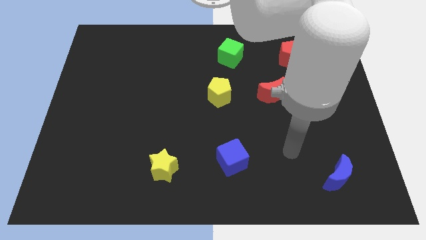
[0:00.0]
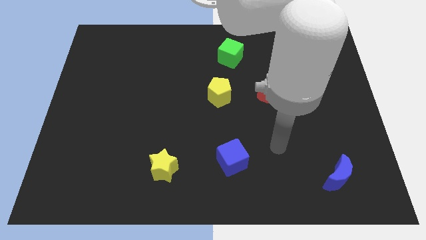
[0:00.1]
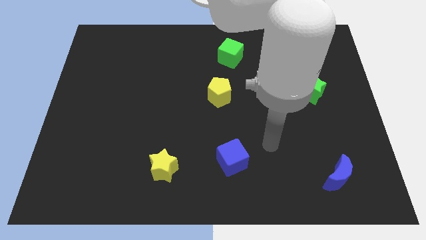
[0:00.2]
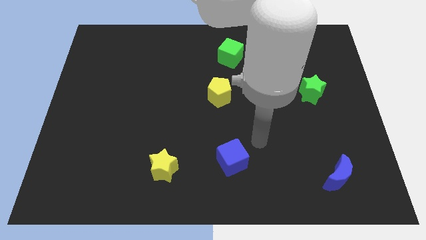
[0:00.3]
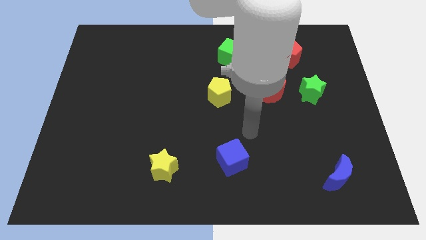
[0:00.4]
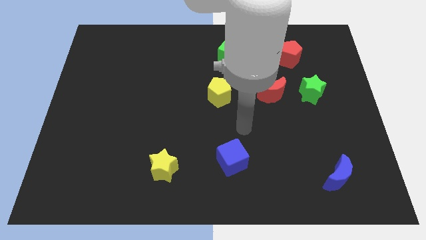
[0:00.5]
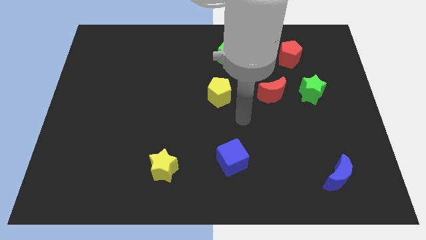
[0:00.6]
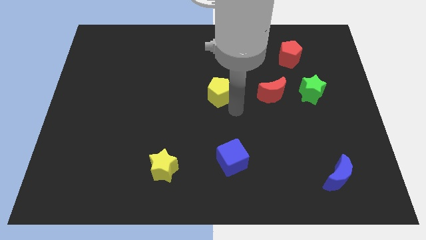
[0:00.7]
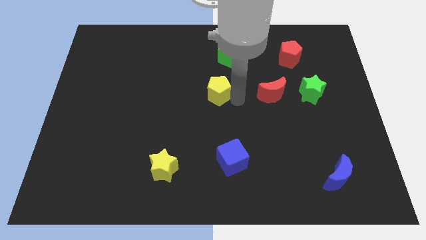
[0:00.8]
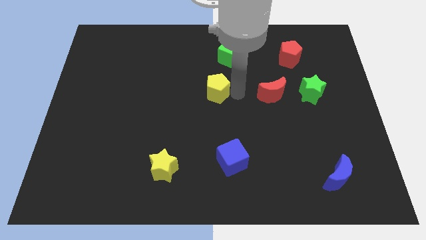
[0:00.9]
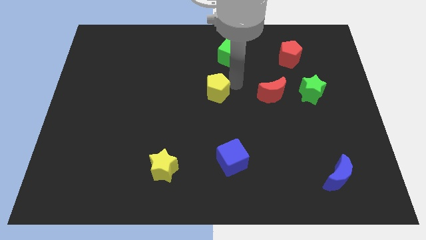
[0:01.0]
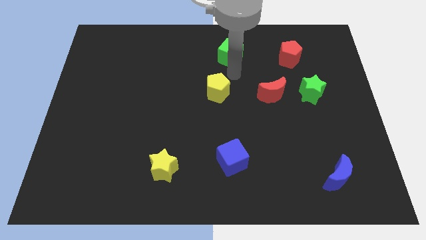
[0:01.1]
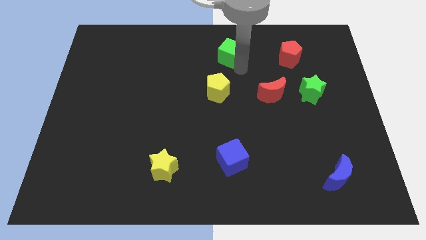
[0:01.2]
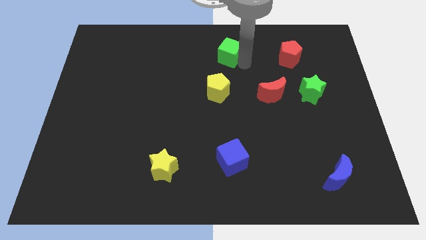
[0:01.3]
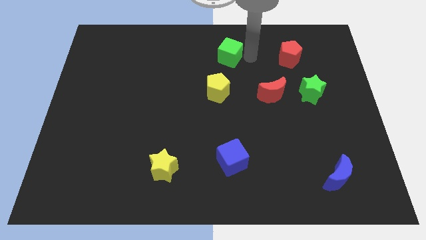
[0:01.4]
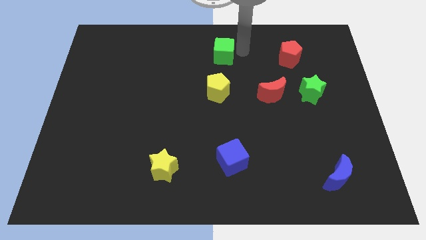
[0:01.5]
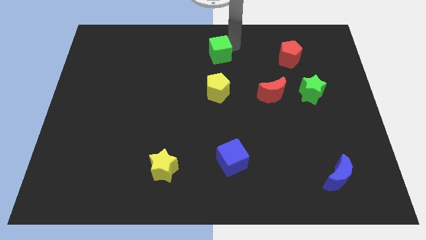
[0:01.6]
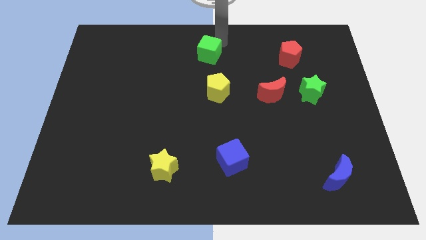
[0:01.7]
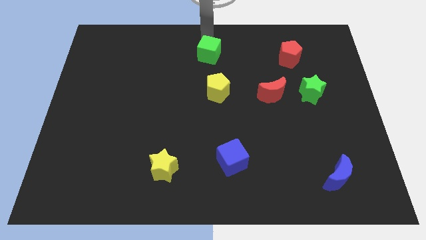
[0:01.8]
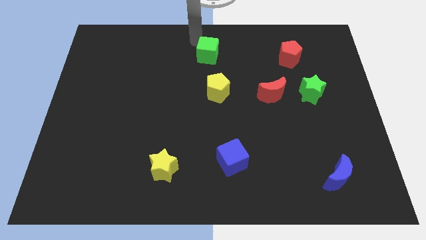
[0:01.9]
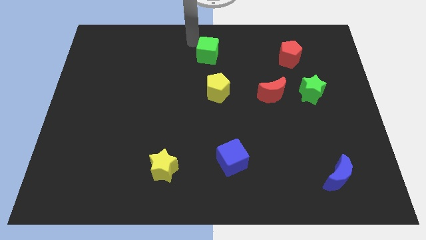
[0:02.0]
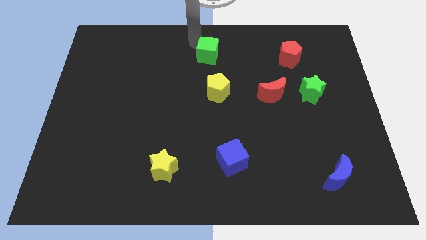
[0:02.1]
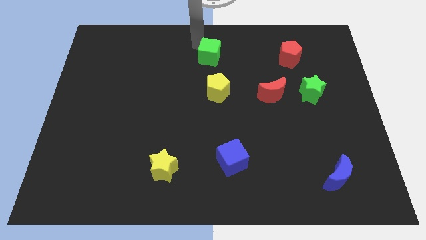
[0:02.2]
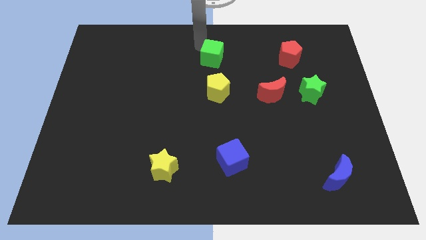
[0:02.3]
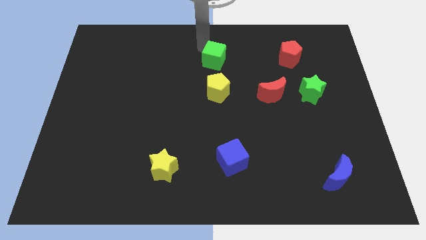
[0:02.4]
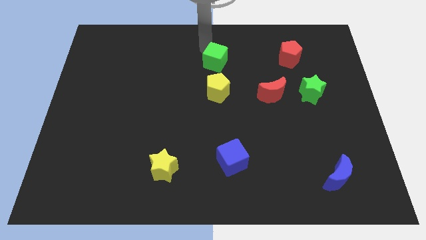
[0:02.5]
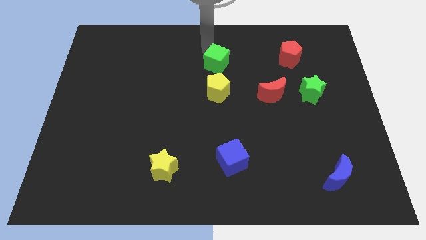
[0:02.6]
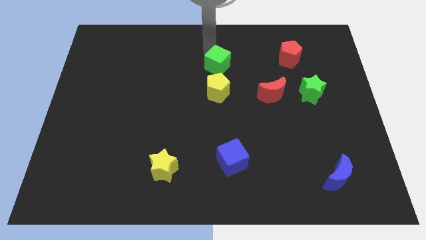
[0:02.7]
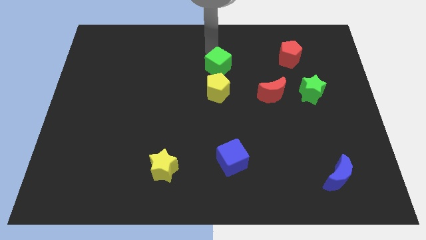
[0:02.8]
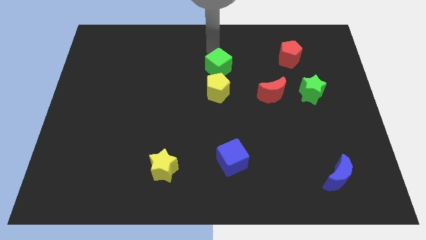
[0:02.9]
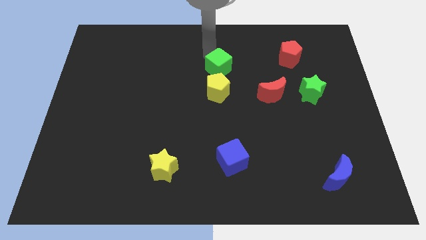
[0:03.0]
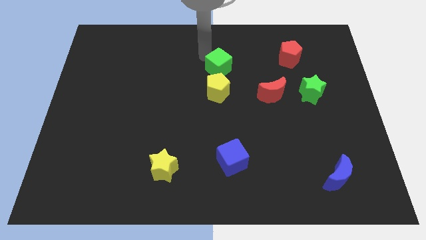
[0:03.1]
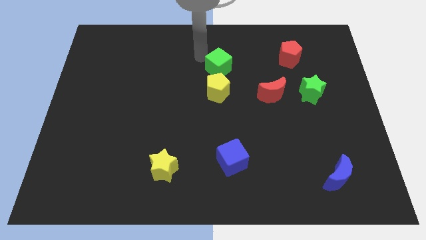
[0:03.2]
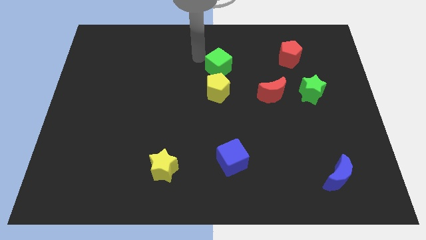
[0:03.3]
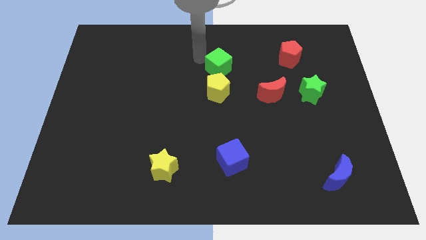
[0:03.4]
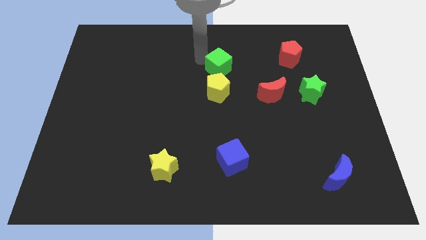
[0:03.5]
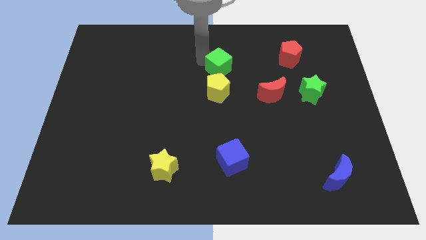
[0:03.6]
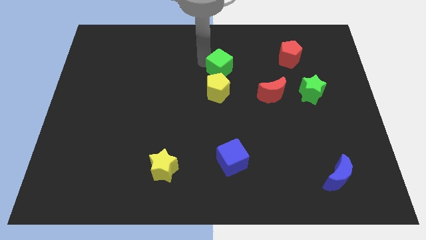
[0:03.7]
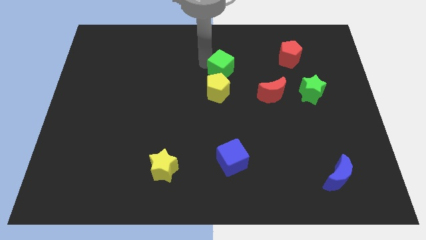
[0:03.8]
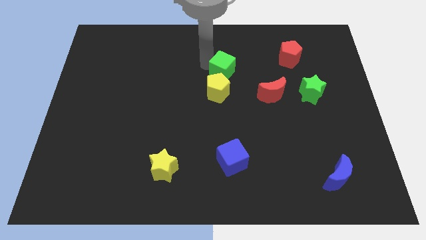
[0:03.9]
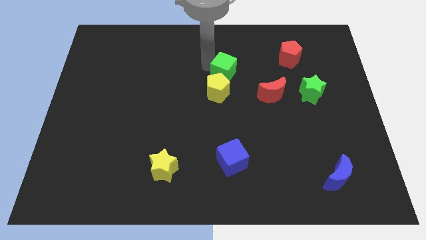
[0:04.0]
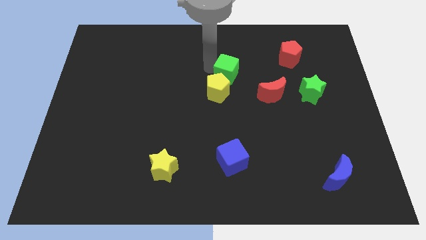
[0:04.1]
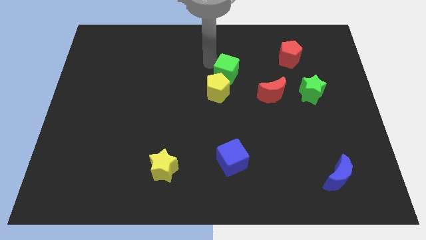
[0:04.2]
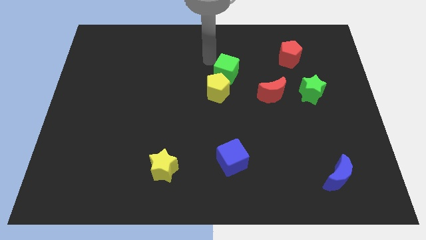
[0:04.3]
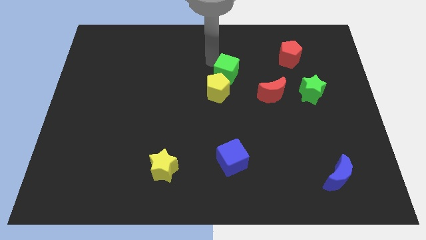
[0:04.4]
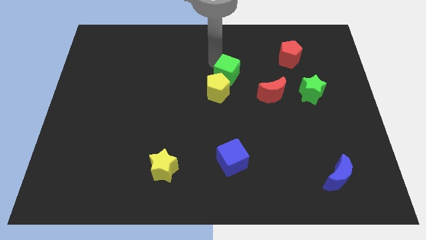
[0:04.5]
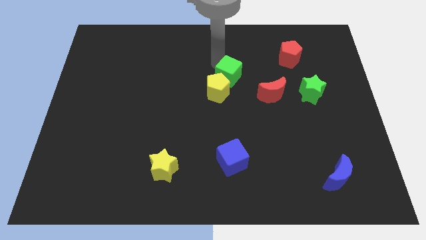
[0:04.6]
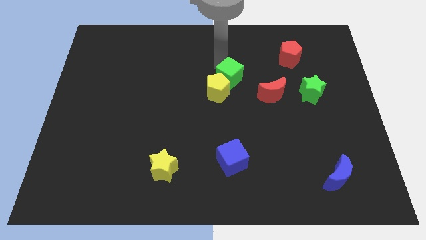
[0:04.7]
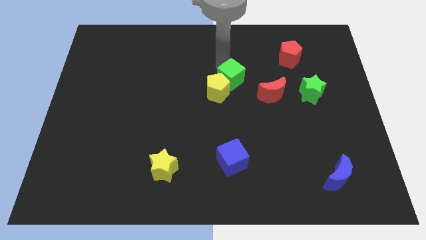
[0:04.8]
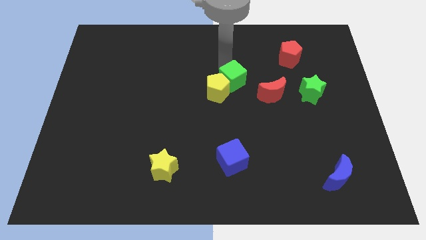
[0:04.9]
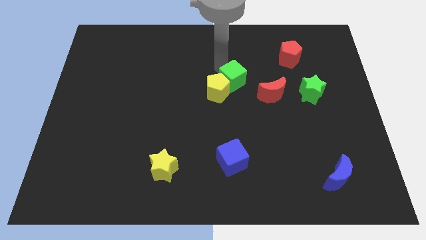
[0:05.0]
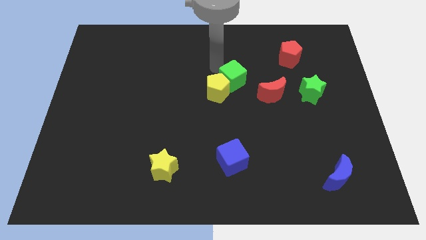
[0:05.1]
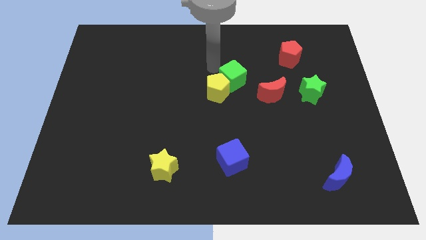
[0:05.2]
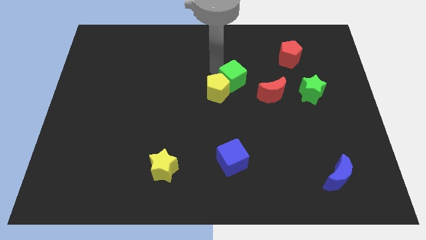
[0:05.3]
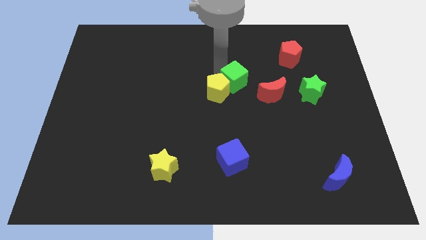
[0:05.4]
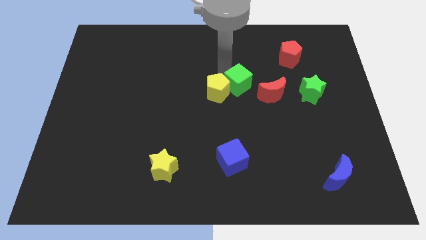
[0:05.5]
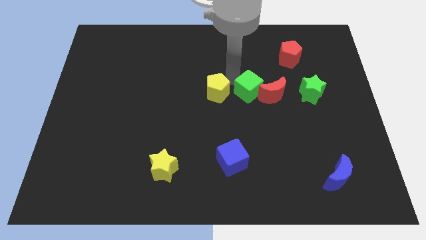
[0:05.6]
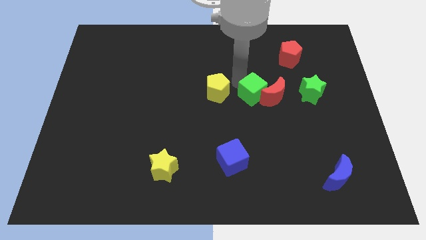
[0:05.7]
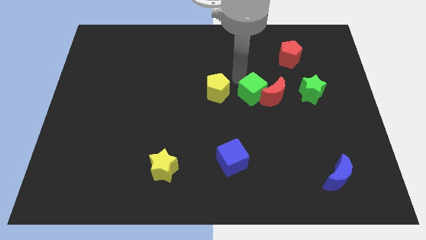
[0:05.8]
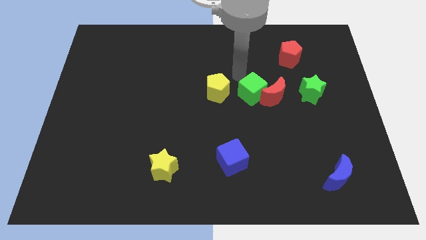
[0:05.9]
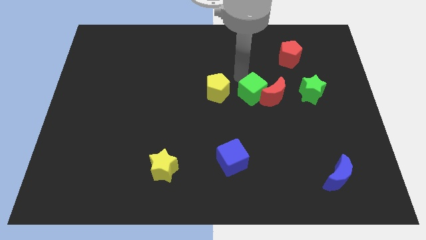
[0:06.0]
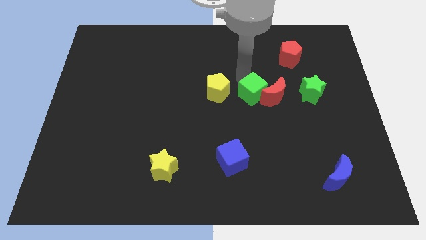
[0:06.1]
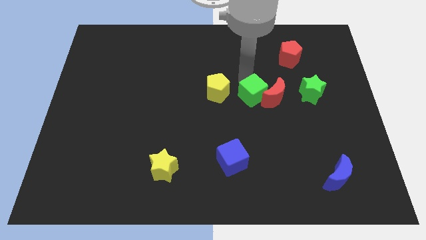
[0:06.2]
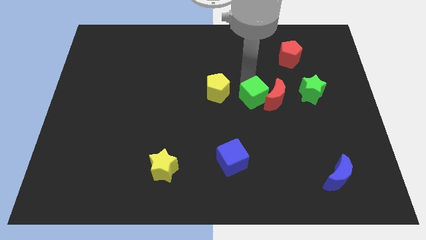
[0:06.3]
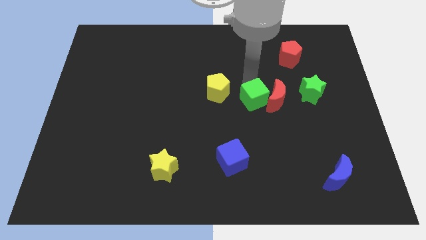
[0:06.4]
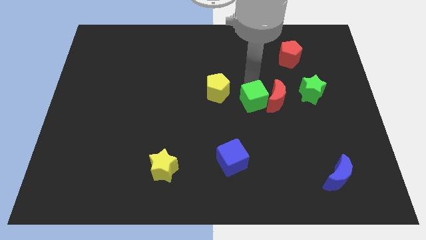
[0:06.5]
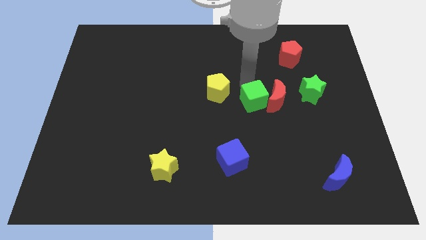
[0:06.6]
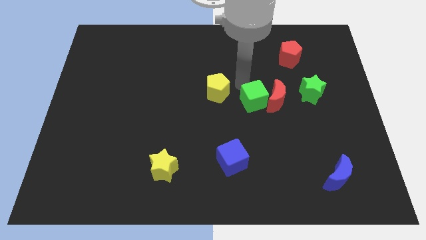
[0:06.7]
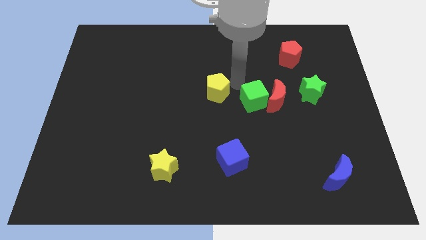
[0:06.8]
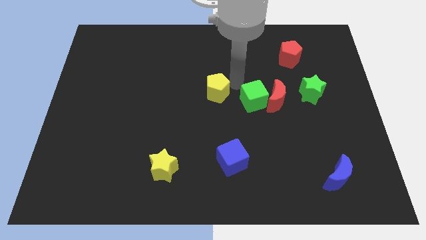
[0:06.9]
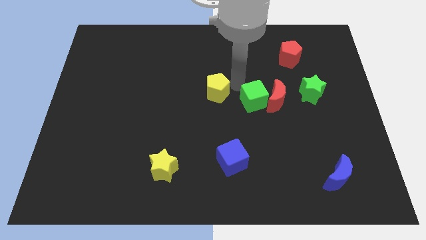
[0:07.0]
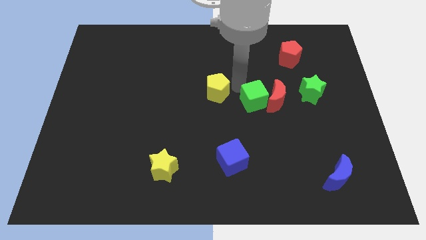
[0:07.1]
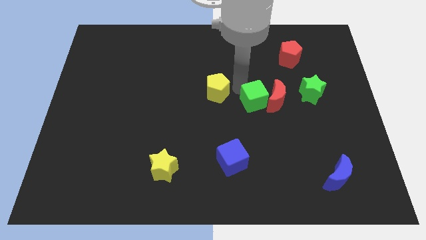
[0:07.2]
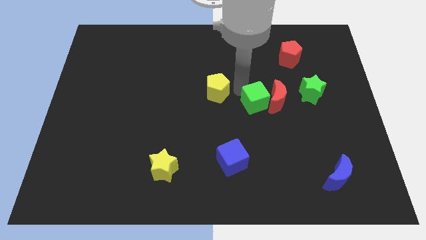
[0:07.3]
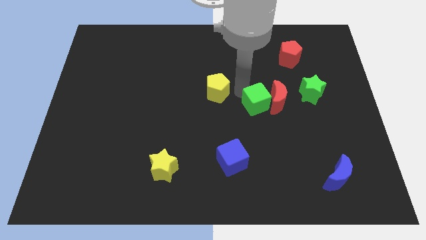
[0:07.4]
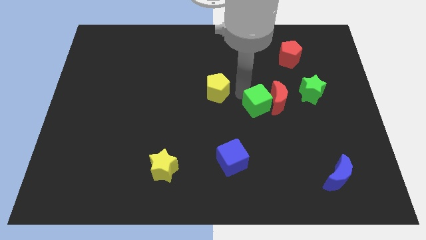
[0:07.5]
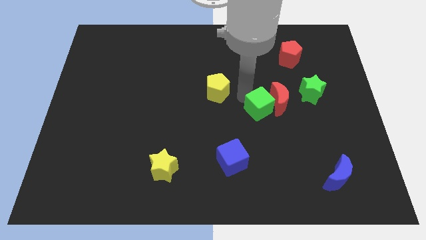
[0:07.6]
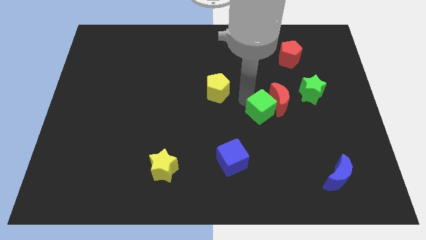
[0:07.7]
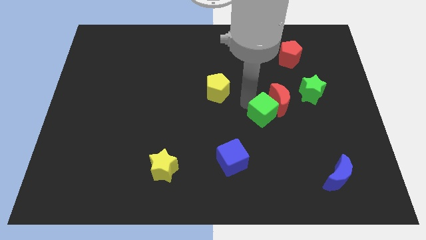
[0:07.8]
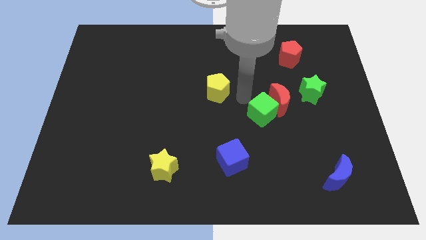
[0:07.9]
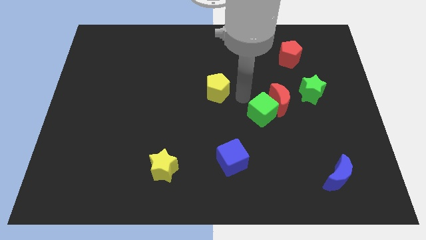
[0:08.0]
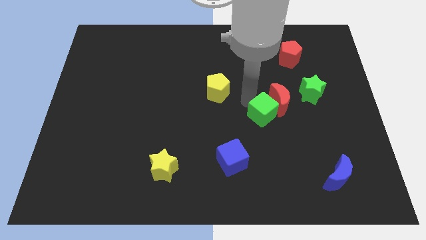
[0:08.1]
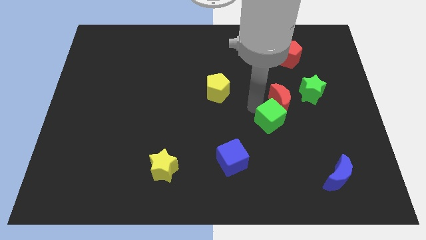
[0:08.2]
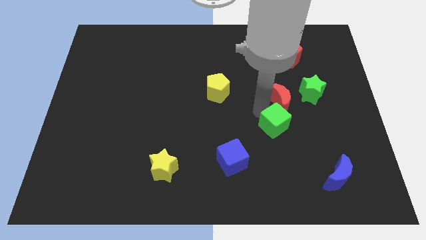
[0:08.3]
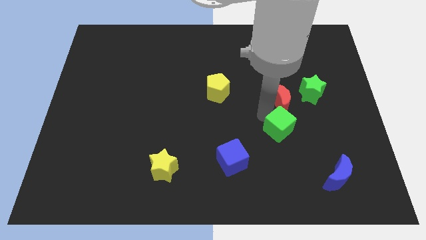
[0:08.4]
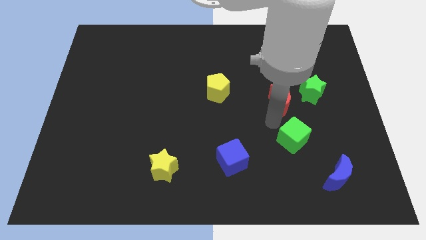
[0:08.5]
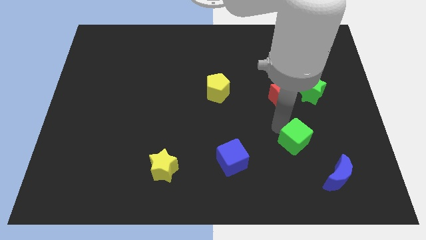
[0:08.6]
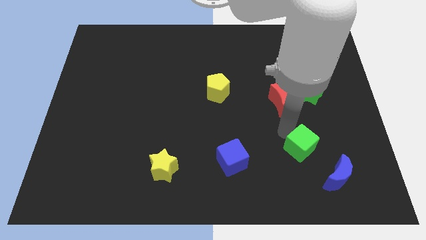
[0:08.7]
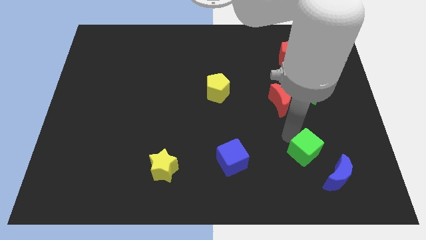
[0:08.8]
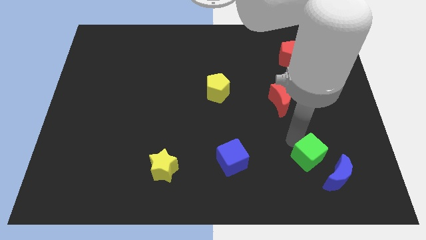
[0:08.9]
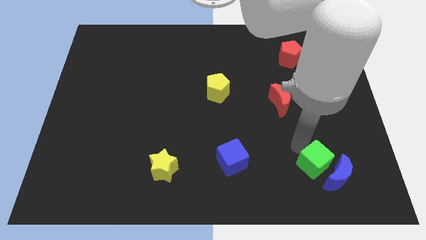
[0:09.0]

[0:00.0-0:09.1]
slide the green cube next to the blue moon
